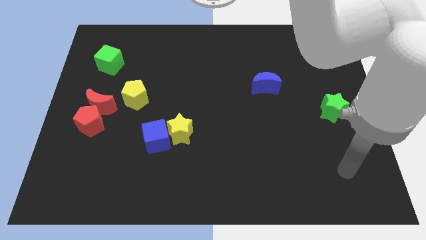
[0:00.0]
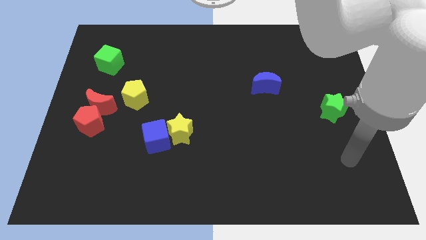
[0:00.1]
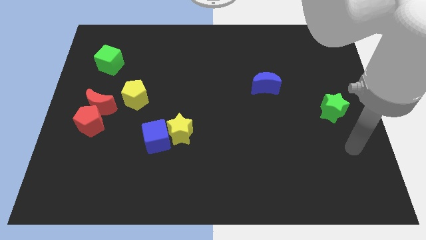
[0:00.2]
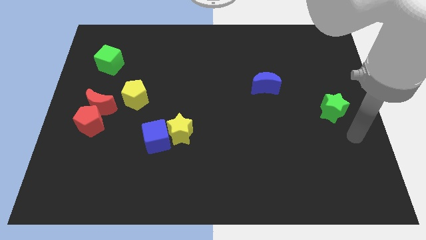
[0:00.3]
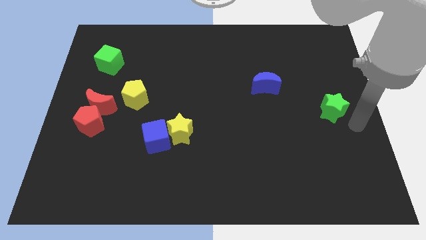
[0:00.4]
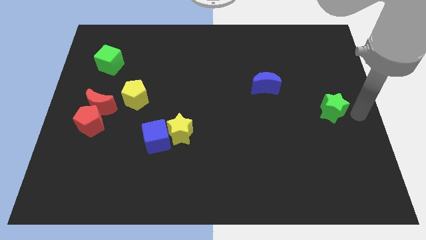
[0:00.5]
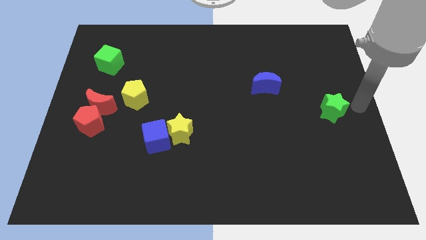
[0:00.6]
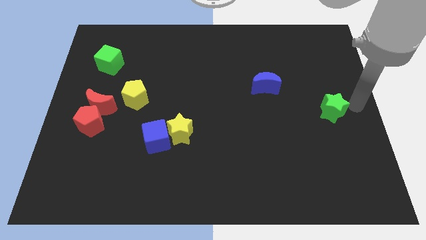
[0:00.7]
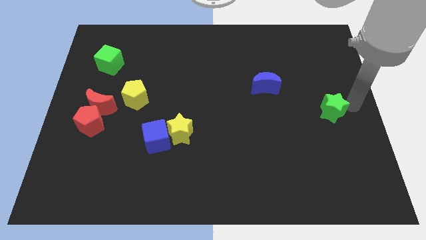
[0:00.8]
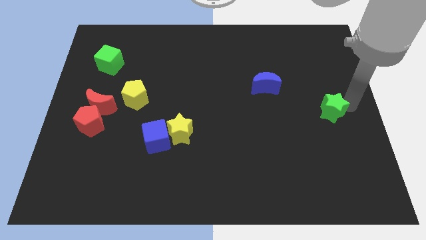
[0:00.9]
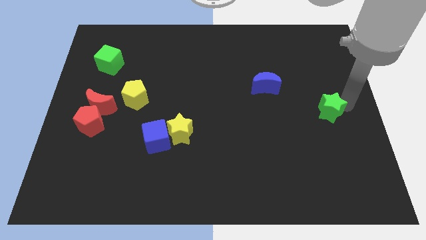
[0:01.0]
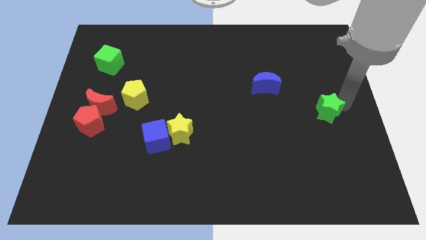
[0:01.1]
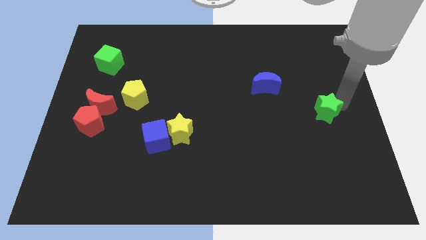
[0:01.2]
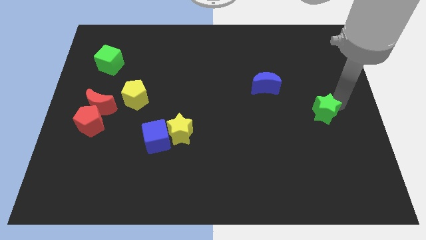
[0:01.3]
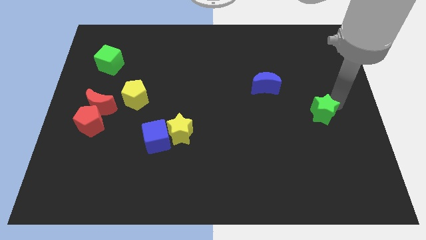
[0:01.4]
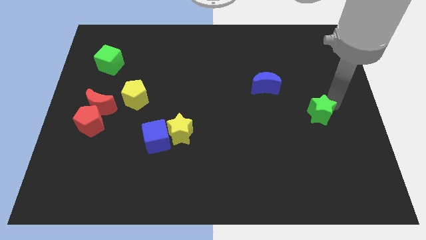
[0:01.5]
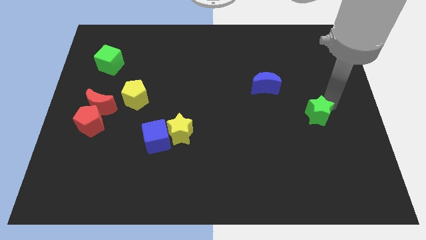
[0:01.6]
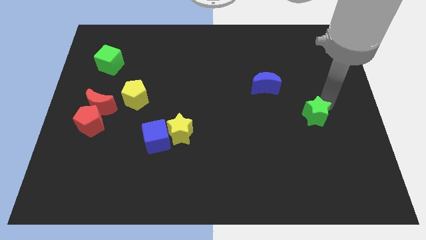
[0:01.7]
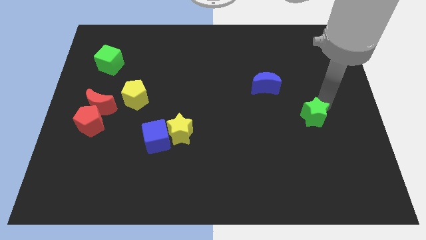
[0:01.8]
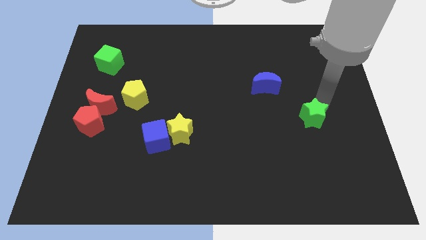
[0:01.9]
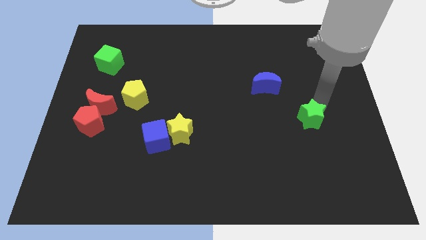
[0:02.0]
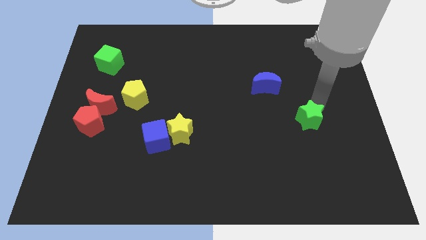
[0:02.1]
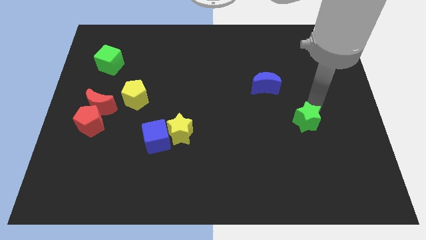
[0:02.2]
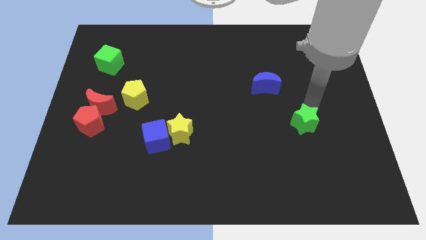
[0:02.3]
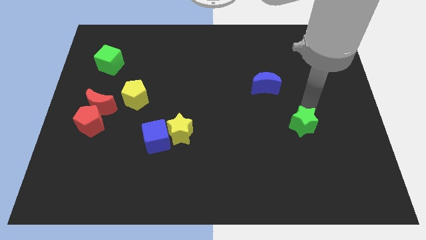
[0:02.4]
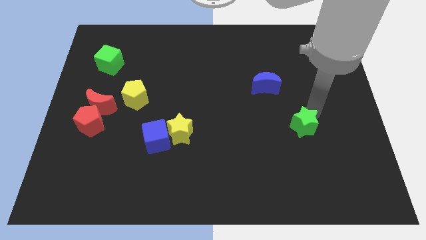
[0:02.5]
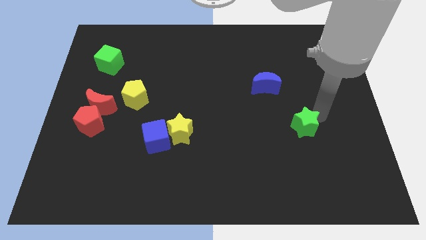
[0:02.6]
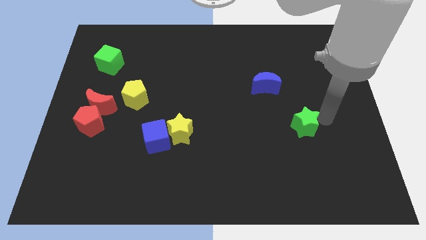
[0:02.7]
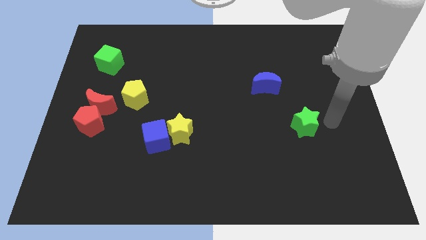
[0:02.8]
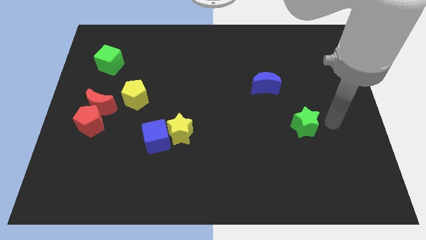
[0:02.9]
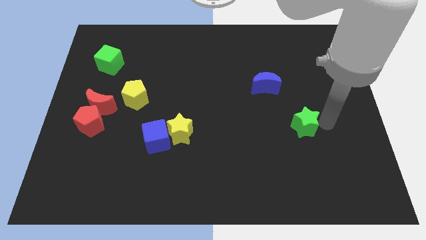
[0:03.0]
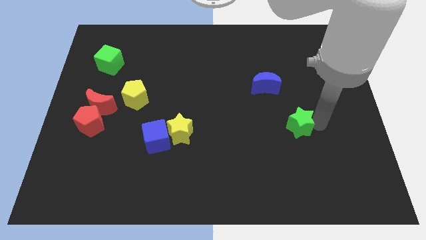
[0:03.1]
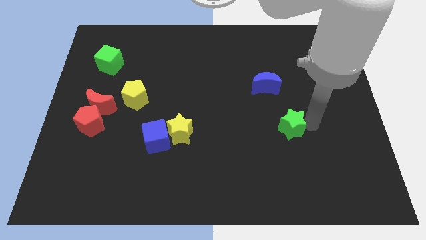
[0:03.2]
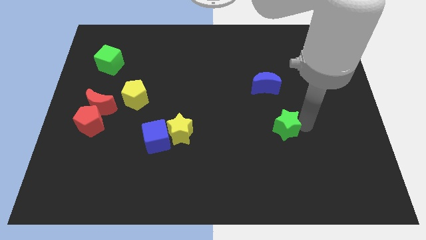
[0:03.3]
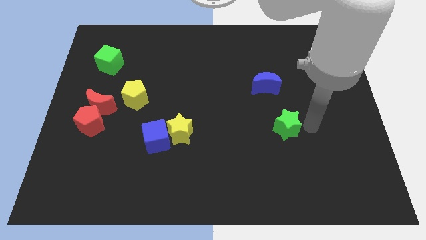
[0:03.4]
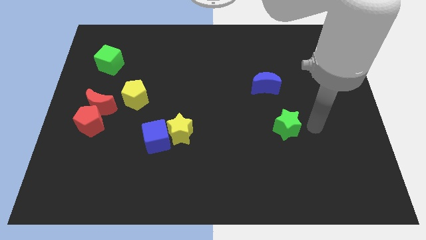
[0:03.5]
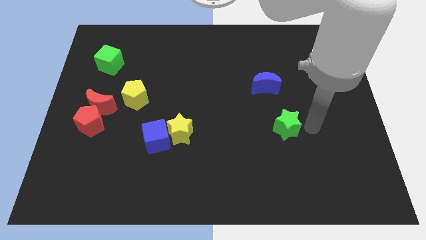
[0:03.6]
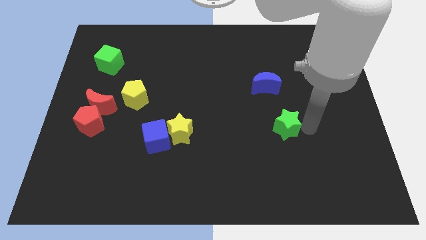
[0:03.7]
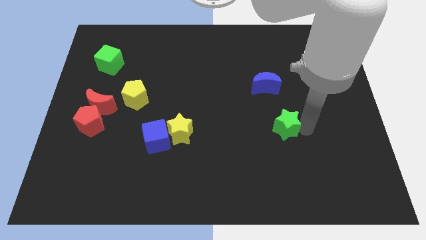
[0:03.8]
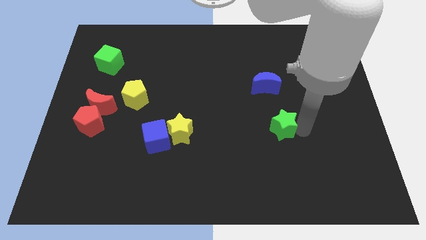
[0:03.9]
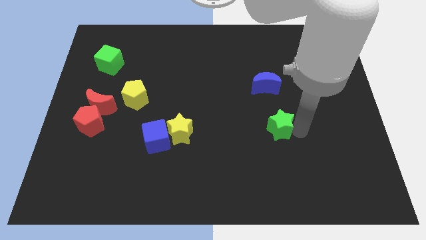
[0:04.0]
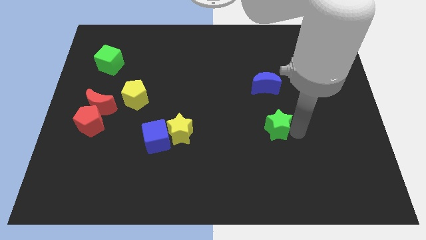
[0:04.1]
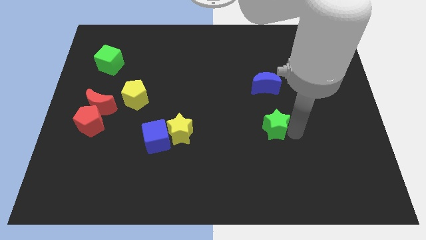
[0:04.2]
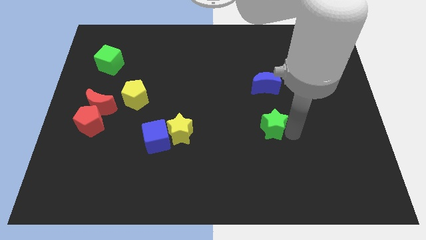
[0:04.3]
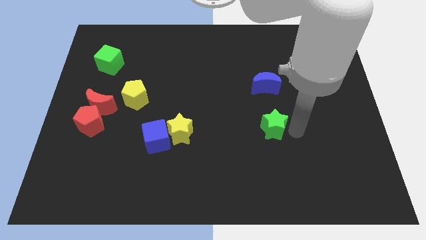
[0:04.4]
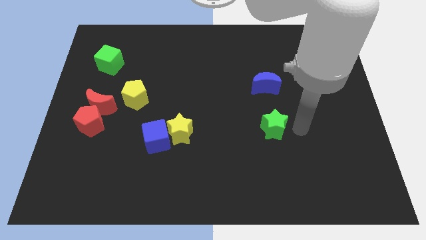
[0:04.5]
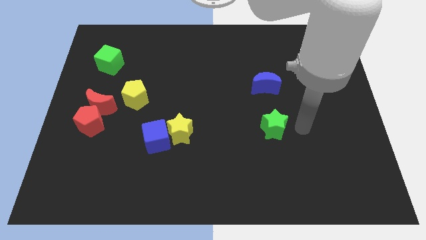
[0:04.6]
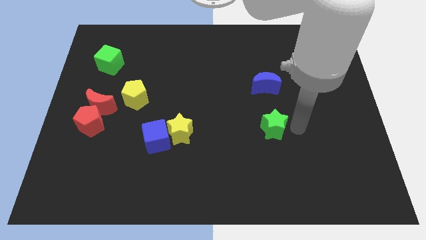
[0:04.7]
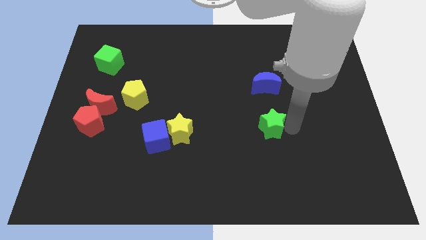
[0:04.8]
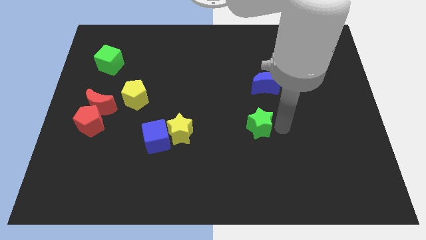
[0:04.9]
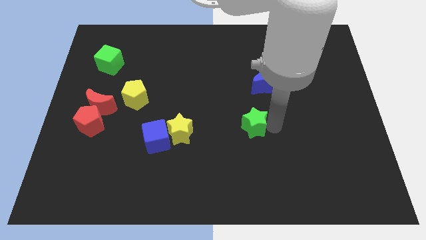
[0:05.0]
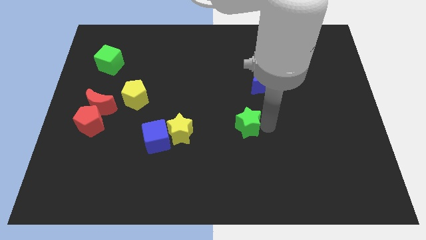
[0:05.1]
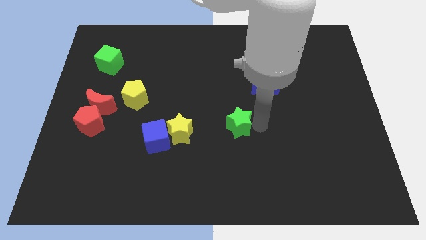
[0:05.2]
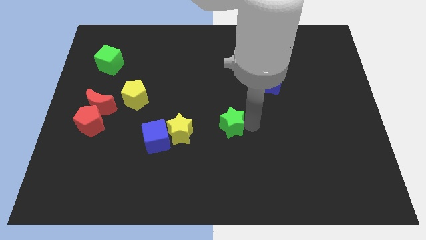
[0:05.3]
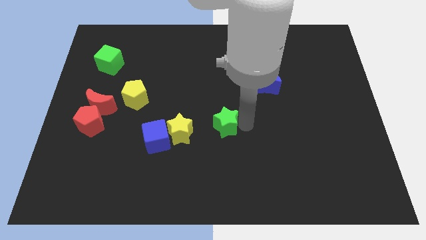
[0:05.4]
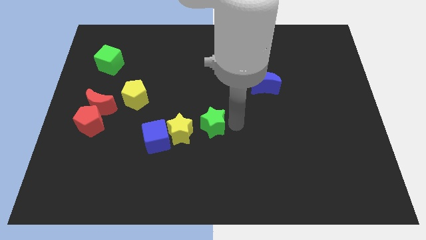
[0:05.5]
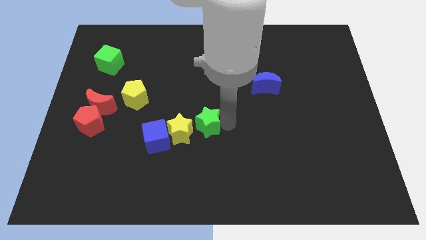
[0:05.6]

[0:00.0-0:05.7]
push the green star towards the yellow star

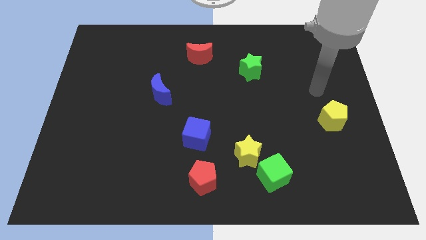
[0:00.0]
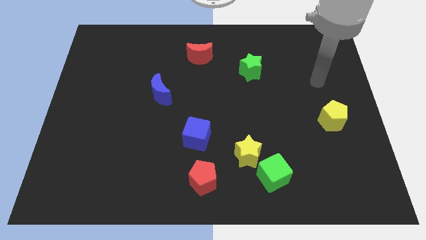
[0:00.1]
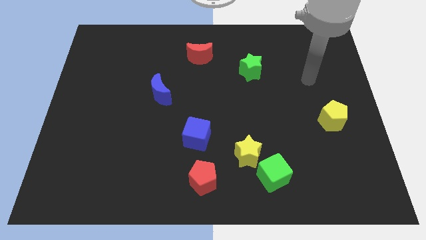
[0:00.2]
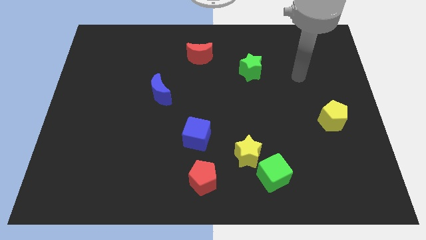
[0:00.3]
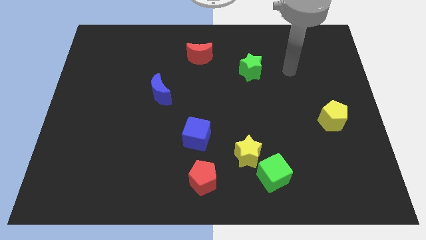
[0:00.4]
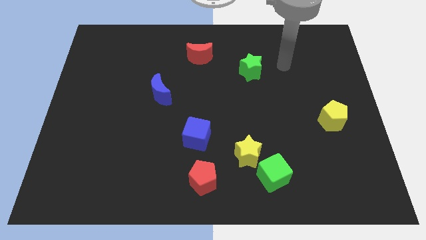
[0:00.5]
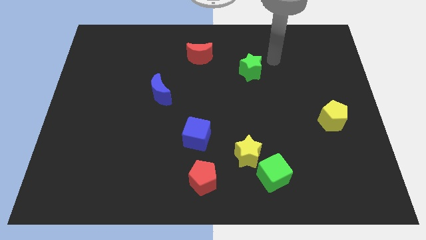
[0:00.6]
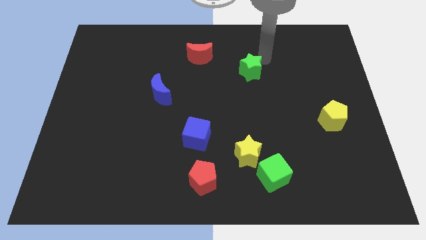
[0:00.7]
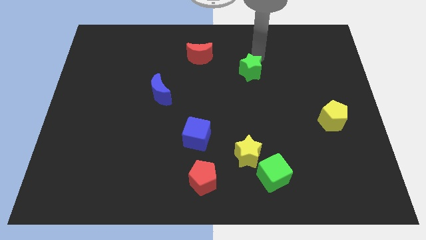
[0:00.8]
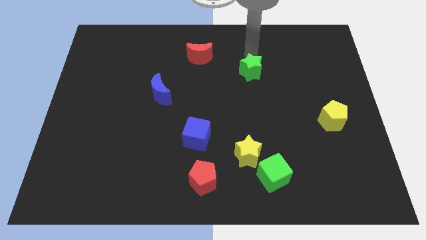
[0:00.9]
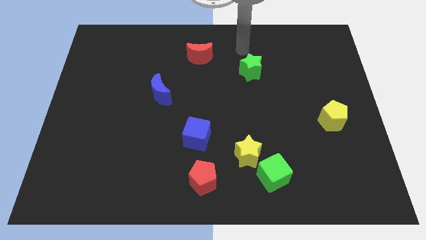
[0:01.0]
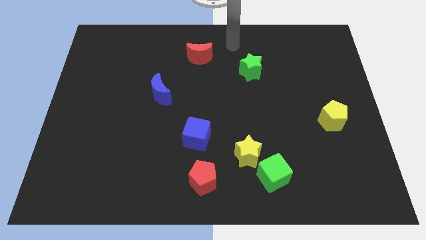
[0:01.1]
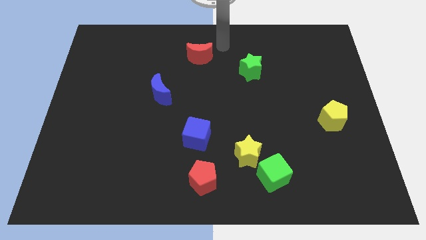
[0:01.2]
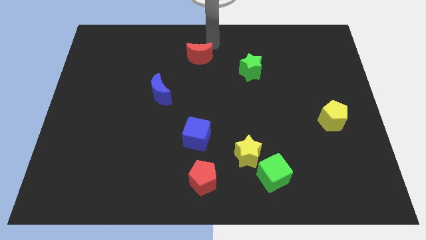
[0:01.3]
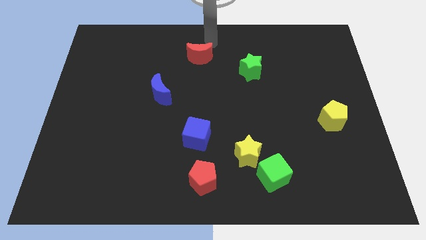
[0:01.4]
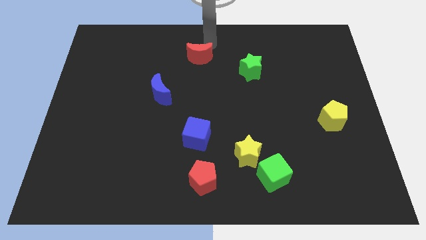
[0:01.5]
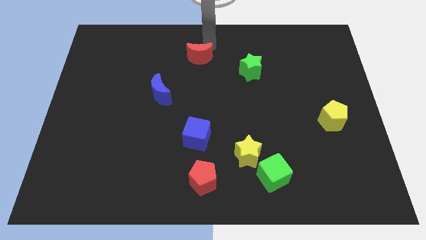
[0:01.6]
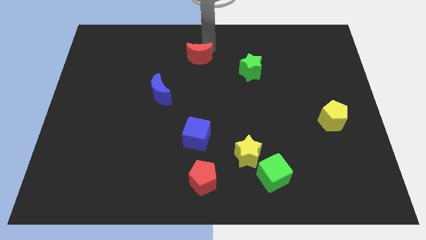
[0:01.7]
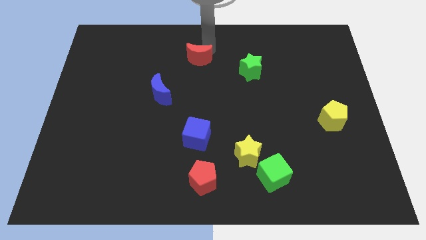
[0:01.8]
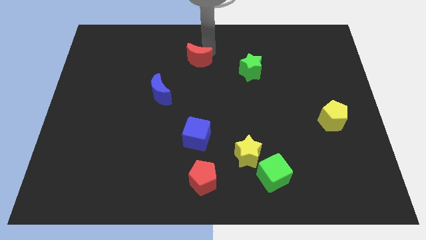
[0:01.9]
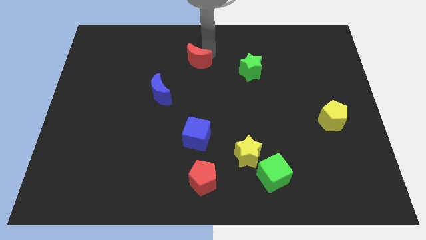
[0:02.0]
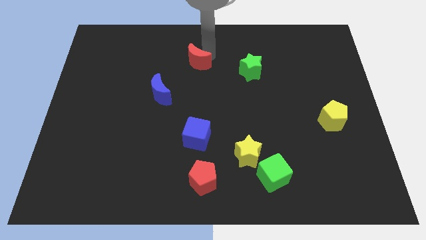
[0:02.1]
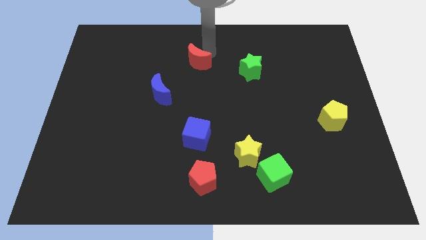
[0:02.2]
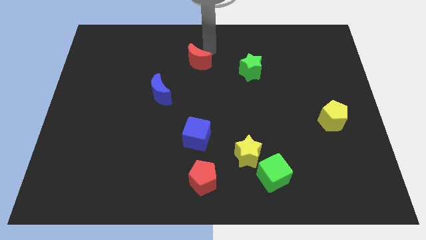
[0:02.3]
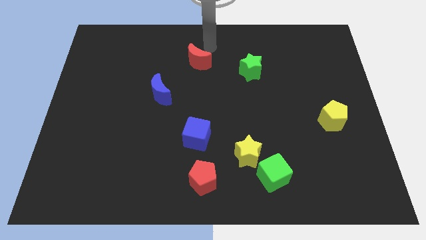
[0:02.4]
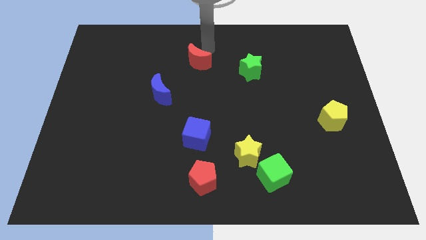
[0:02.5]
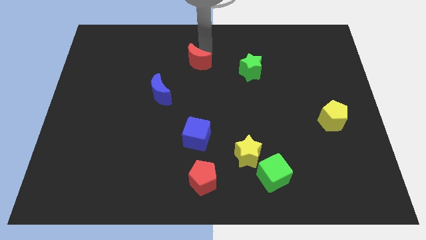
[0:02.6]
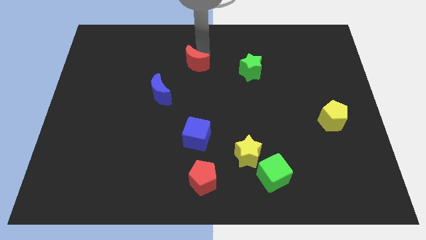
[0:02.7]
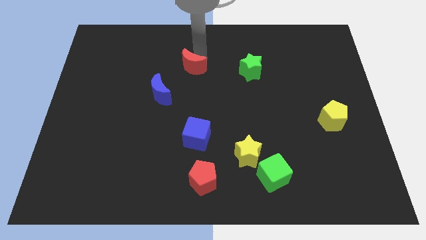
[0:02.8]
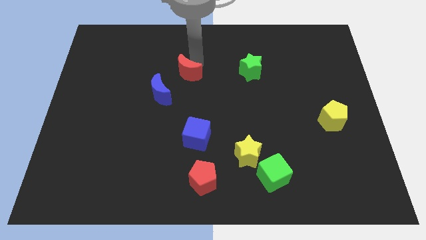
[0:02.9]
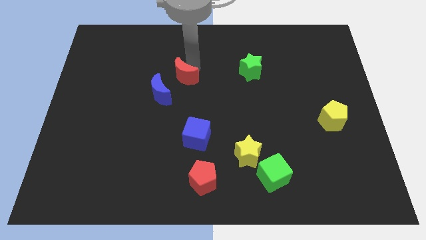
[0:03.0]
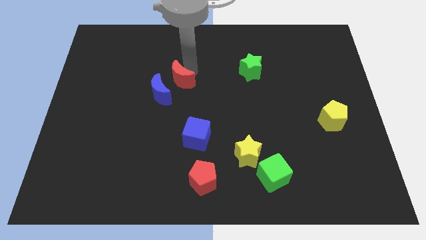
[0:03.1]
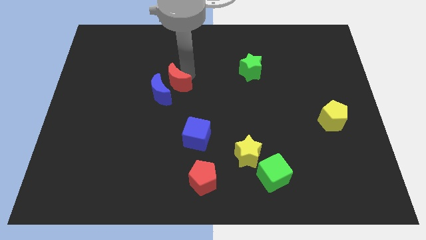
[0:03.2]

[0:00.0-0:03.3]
put the red moon next to the blue moon
